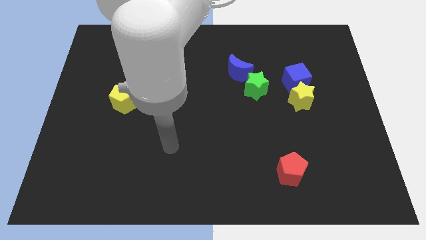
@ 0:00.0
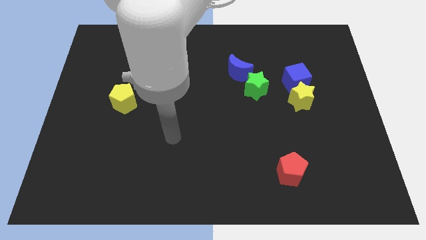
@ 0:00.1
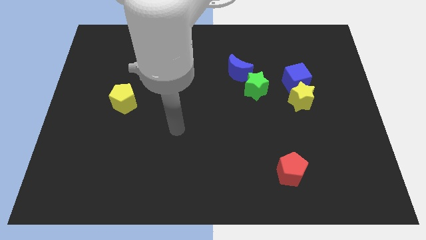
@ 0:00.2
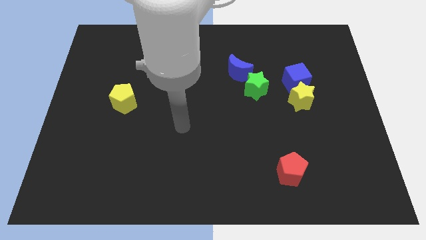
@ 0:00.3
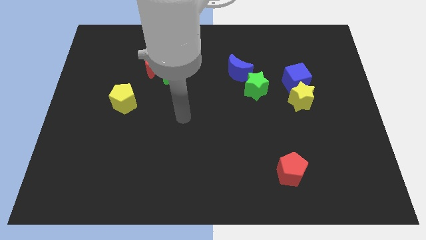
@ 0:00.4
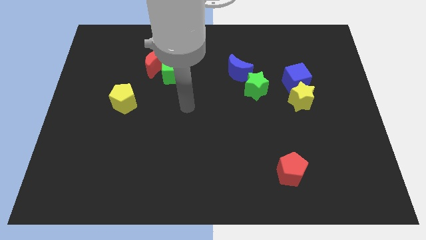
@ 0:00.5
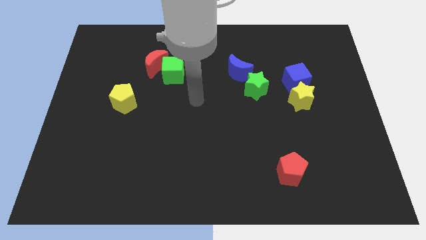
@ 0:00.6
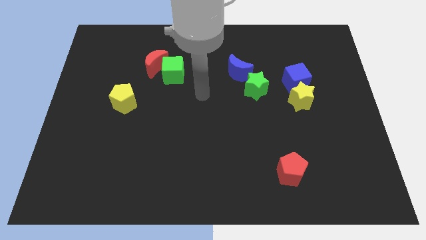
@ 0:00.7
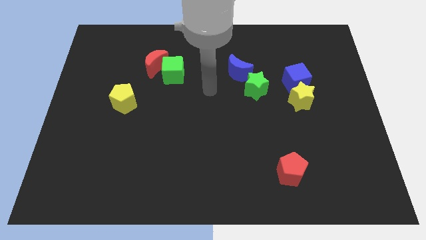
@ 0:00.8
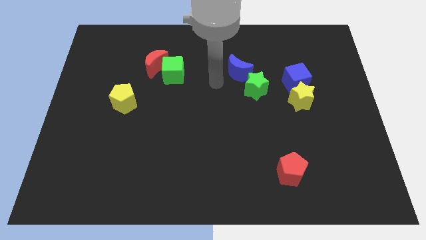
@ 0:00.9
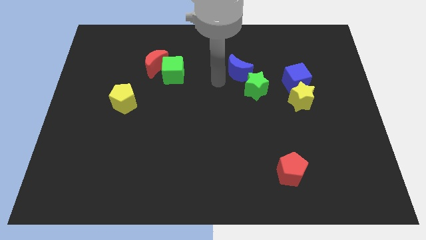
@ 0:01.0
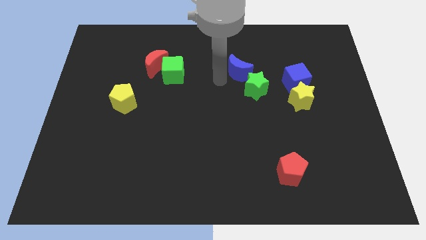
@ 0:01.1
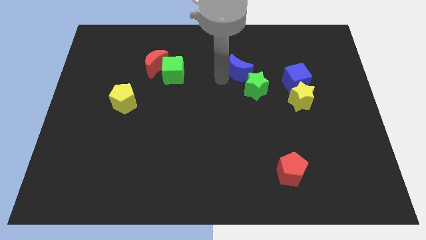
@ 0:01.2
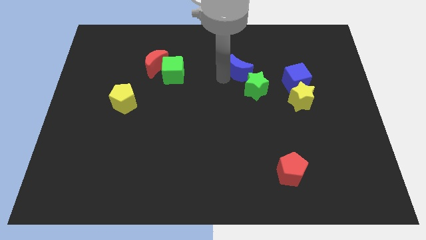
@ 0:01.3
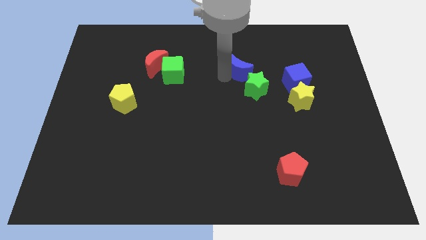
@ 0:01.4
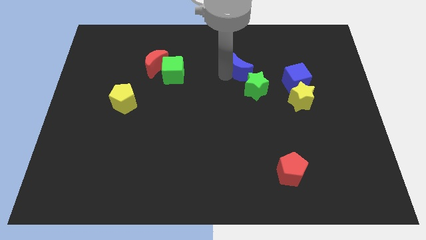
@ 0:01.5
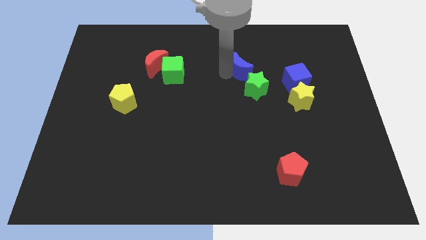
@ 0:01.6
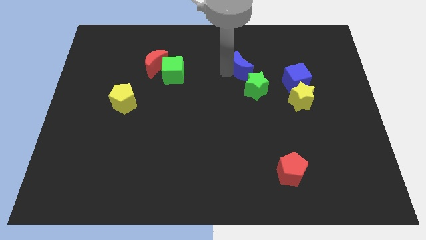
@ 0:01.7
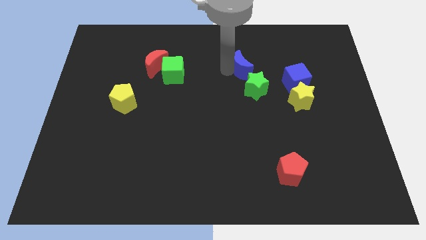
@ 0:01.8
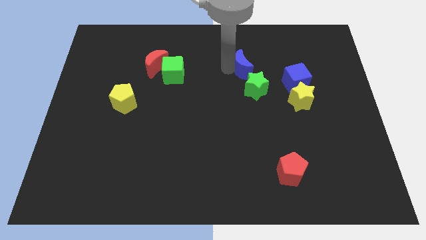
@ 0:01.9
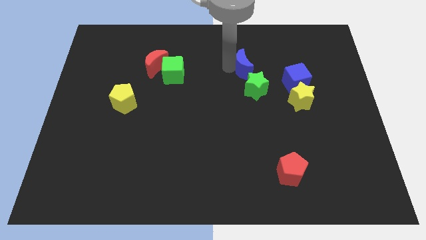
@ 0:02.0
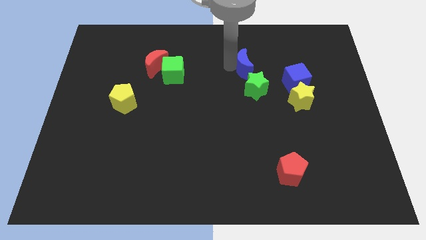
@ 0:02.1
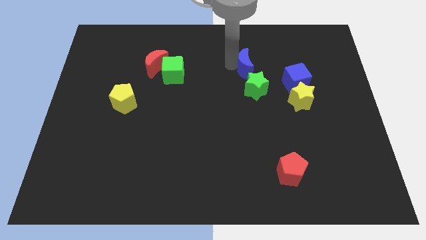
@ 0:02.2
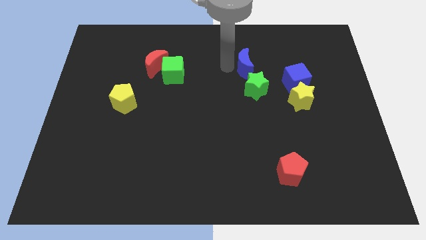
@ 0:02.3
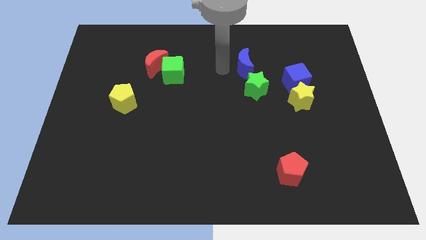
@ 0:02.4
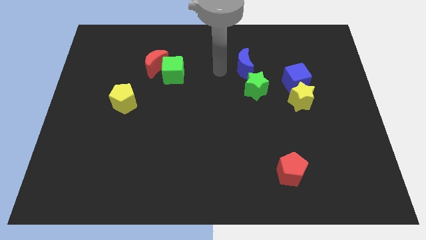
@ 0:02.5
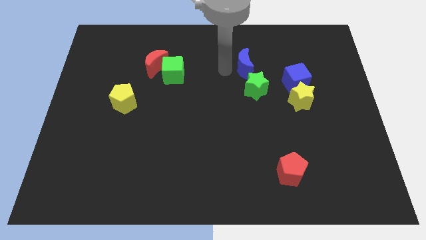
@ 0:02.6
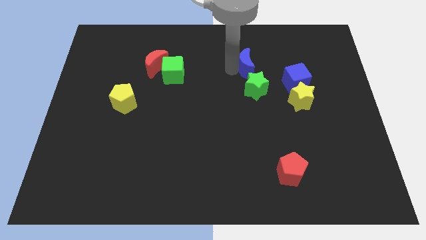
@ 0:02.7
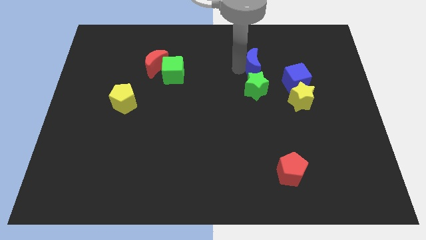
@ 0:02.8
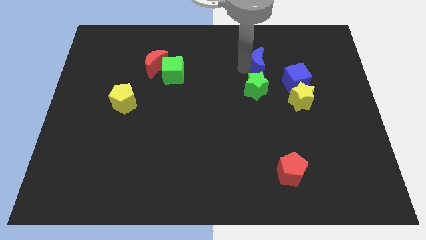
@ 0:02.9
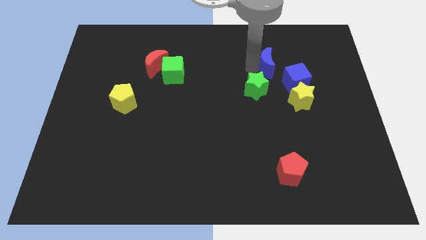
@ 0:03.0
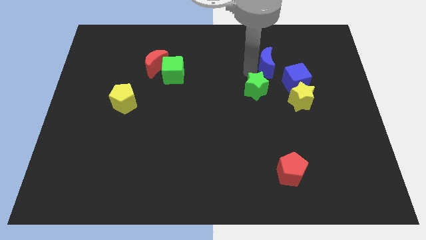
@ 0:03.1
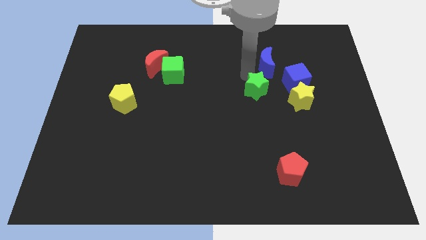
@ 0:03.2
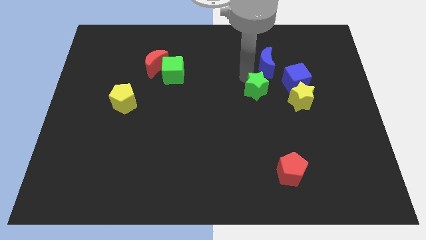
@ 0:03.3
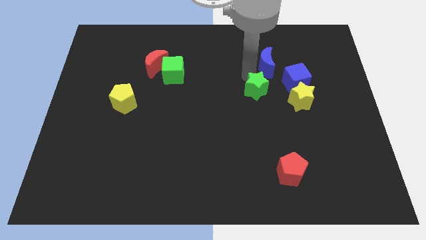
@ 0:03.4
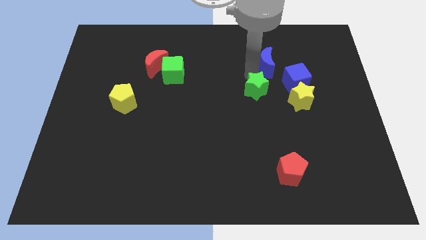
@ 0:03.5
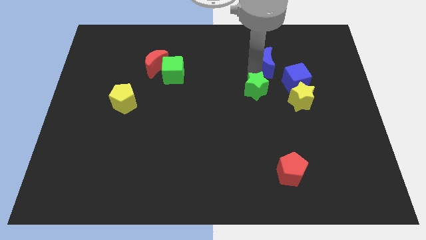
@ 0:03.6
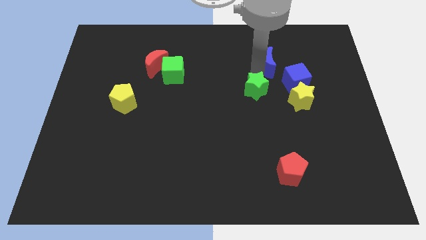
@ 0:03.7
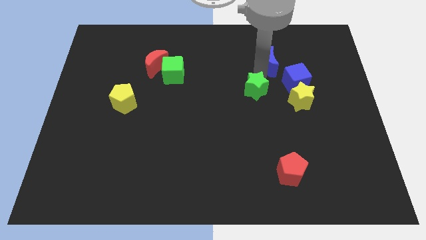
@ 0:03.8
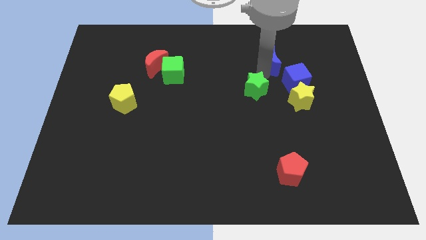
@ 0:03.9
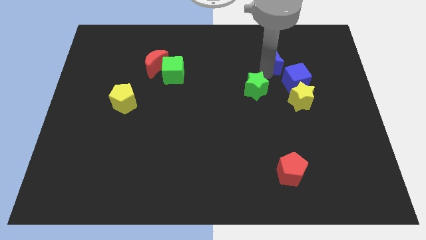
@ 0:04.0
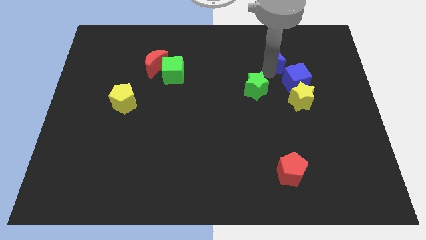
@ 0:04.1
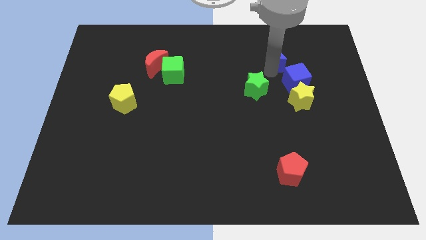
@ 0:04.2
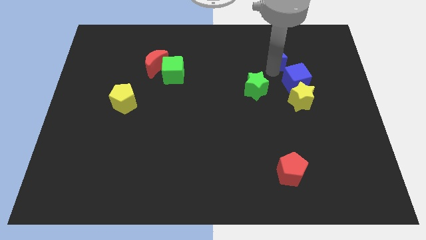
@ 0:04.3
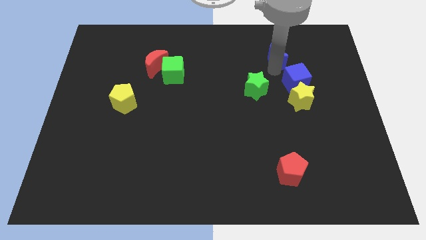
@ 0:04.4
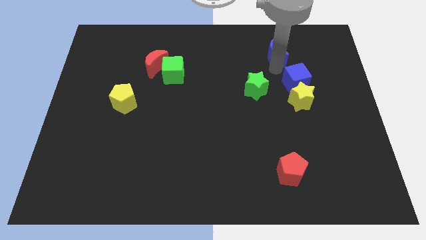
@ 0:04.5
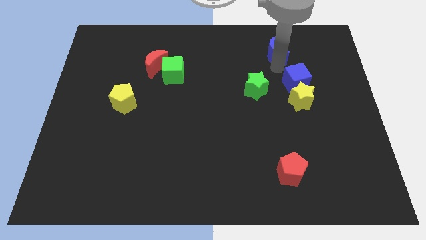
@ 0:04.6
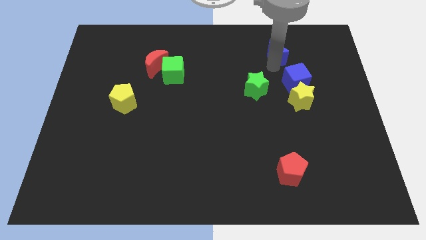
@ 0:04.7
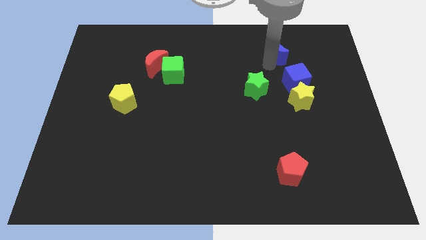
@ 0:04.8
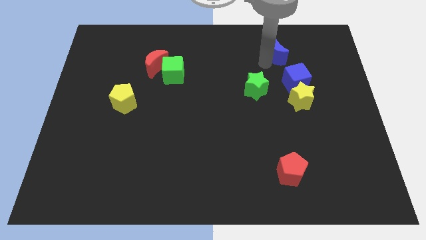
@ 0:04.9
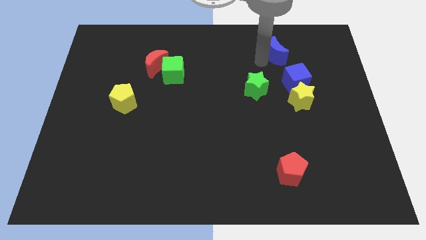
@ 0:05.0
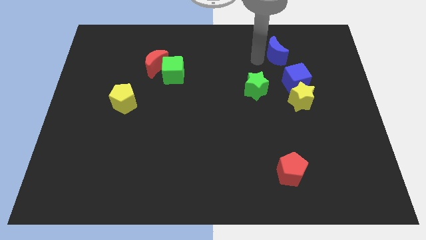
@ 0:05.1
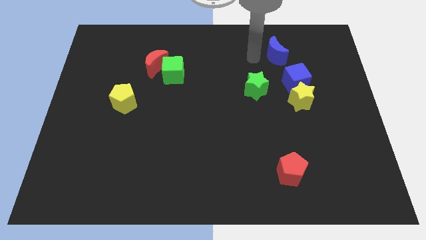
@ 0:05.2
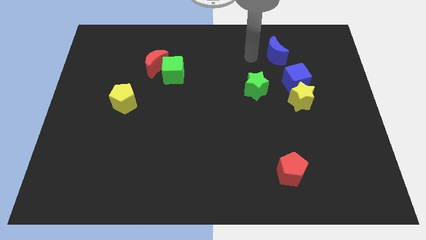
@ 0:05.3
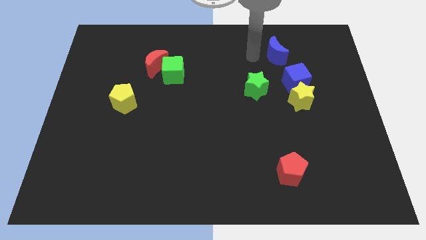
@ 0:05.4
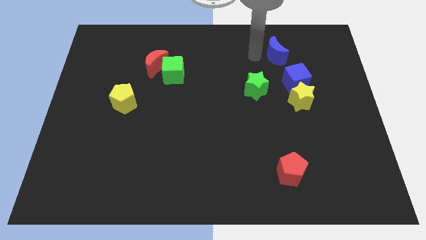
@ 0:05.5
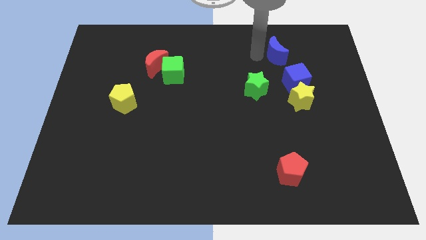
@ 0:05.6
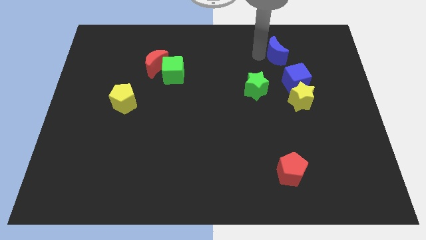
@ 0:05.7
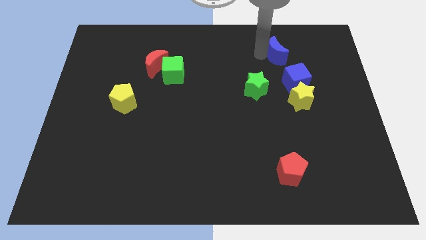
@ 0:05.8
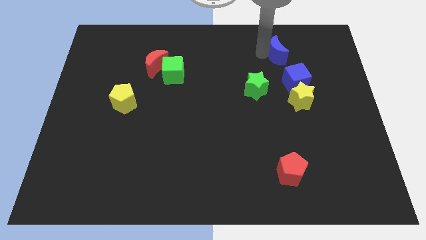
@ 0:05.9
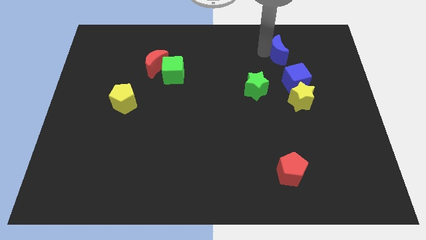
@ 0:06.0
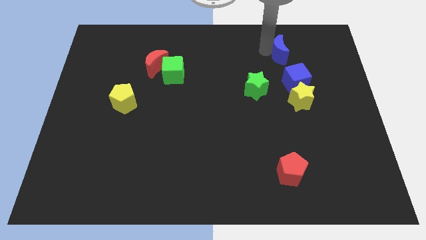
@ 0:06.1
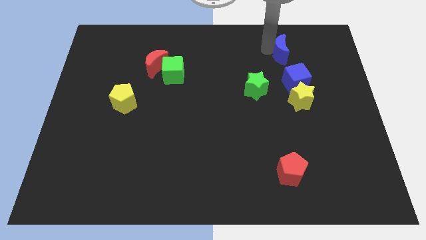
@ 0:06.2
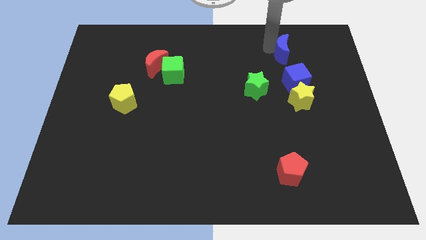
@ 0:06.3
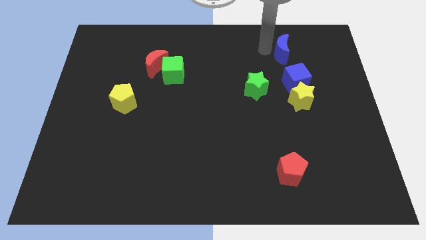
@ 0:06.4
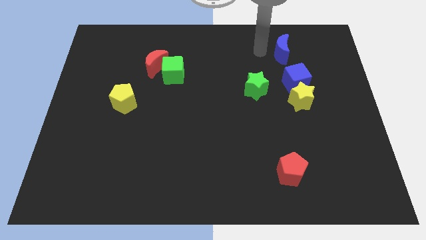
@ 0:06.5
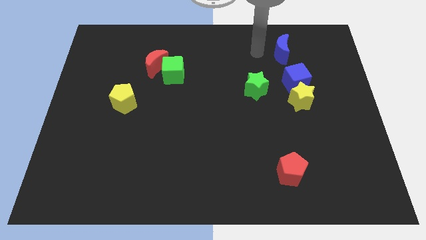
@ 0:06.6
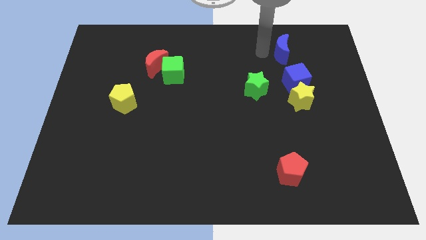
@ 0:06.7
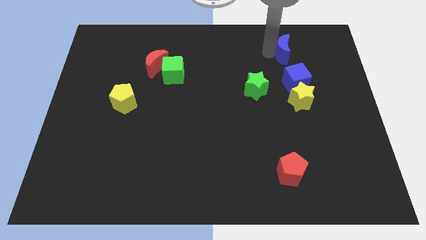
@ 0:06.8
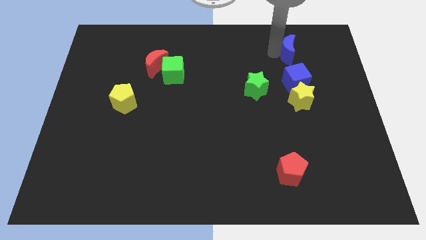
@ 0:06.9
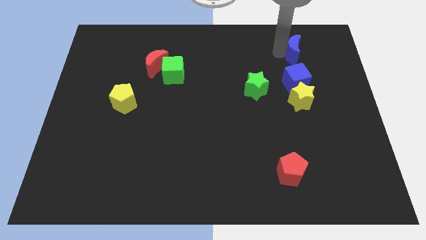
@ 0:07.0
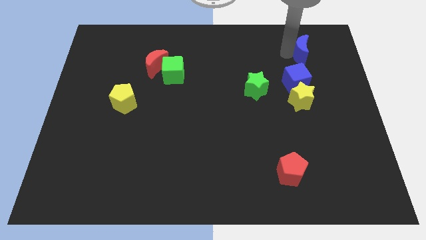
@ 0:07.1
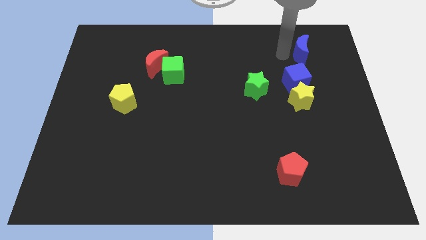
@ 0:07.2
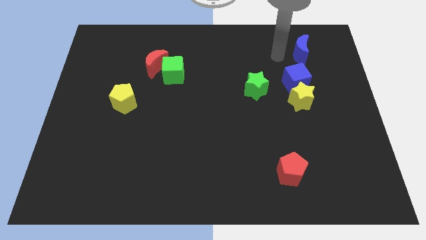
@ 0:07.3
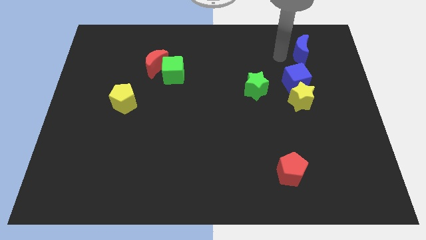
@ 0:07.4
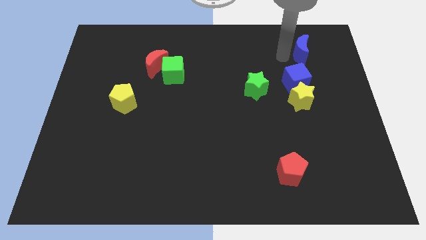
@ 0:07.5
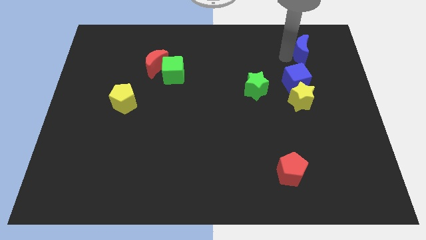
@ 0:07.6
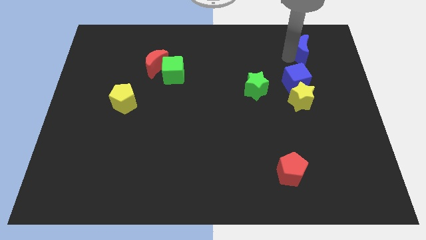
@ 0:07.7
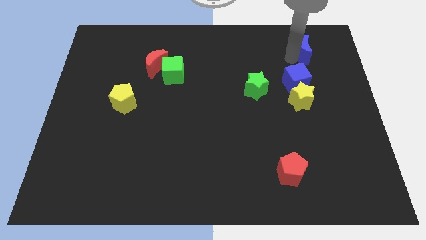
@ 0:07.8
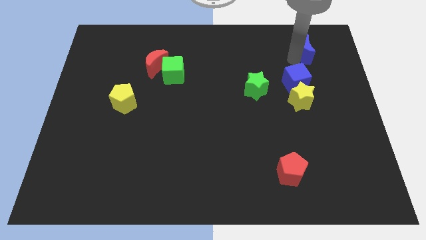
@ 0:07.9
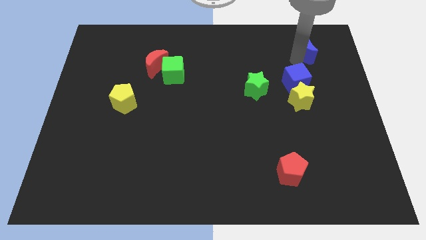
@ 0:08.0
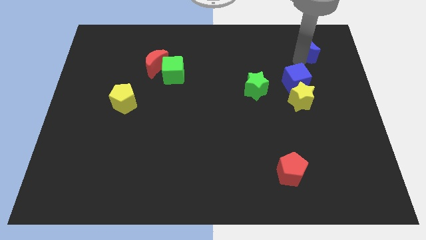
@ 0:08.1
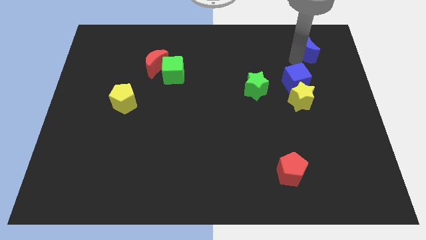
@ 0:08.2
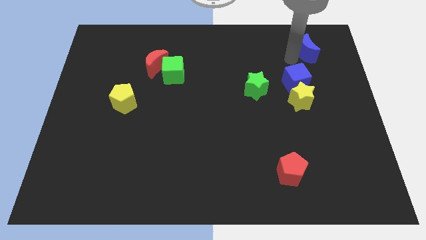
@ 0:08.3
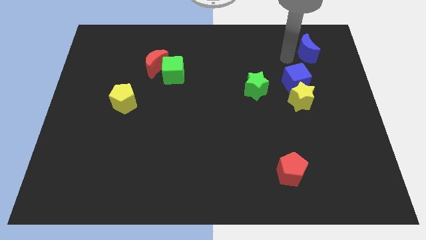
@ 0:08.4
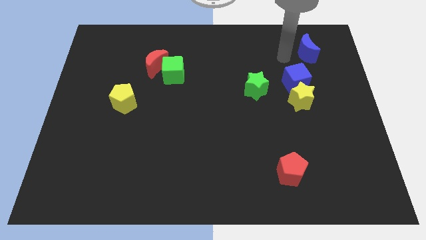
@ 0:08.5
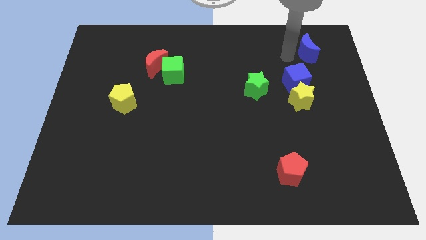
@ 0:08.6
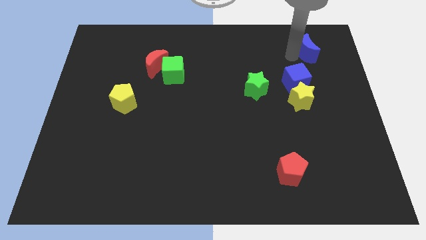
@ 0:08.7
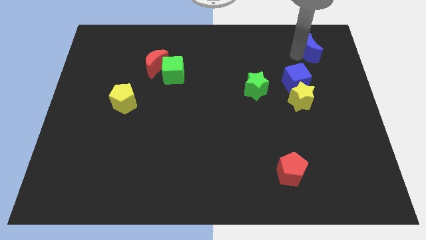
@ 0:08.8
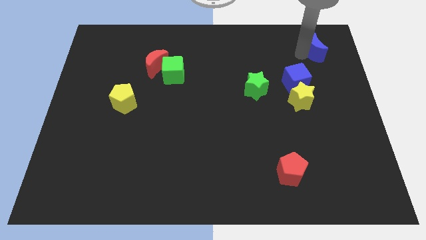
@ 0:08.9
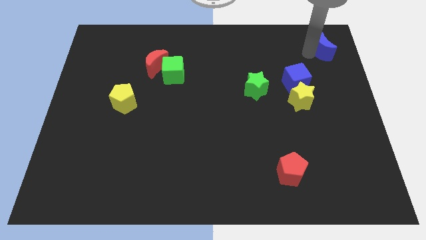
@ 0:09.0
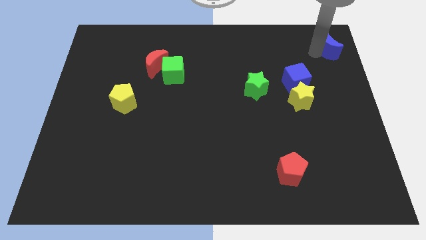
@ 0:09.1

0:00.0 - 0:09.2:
push the blue moon to the top right corner
